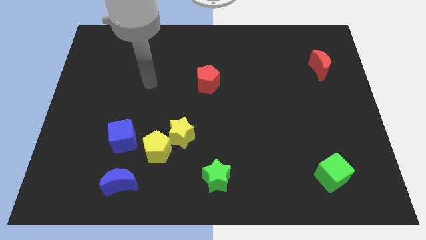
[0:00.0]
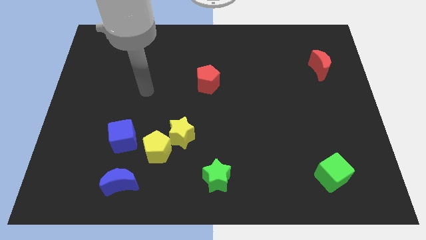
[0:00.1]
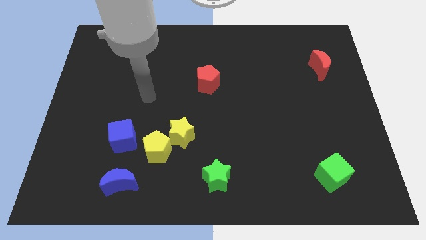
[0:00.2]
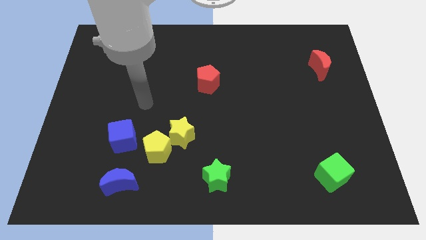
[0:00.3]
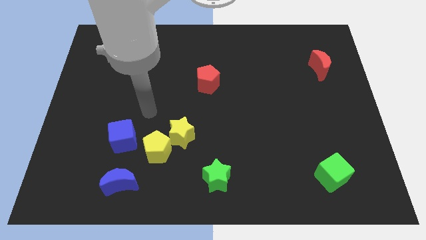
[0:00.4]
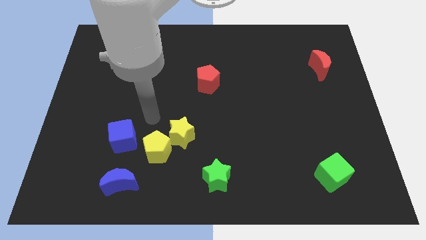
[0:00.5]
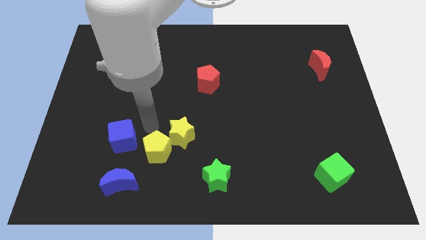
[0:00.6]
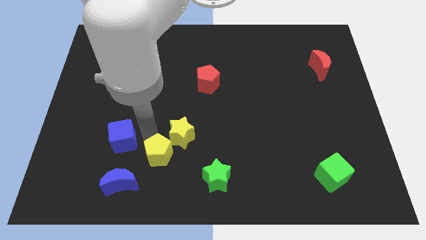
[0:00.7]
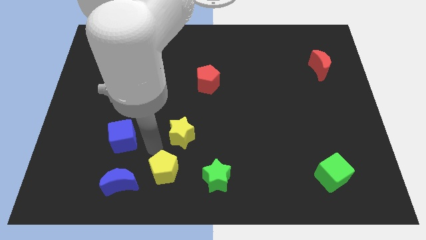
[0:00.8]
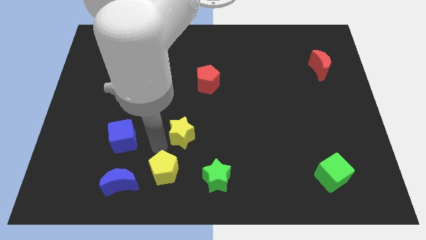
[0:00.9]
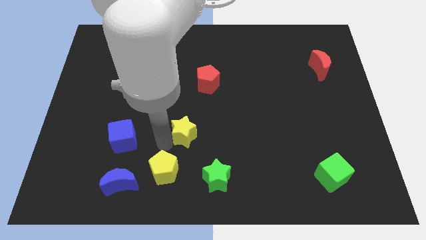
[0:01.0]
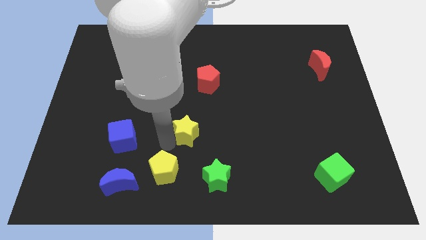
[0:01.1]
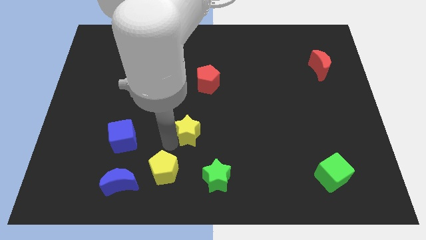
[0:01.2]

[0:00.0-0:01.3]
pull the yellow star apart from the yellow pentagon

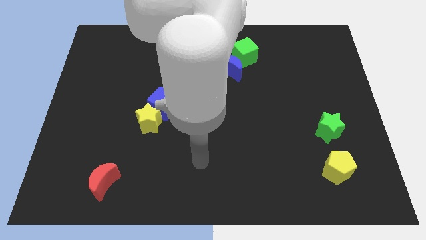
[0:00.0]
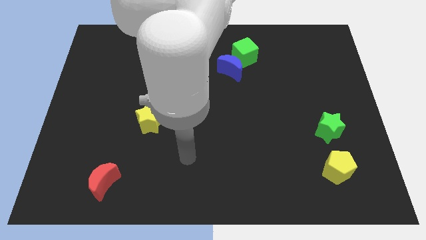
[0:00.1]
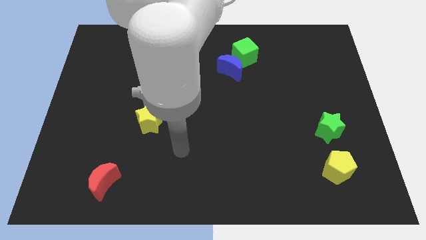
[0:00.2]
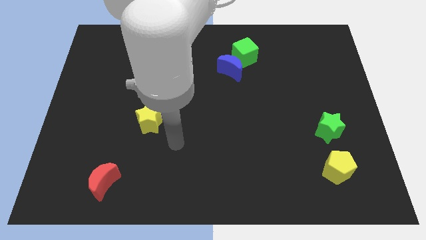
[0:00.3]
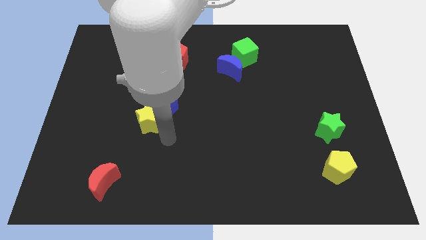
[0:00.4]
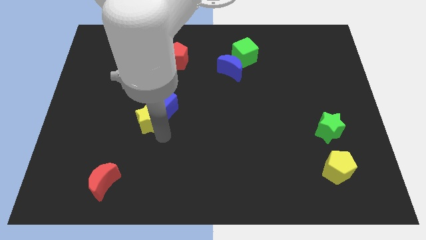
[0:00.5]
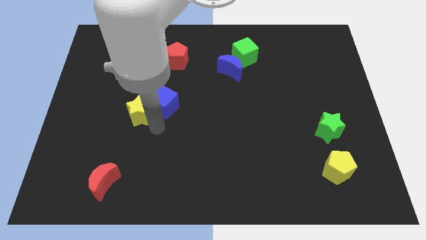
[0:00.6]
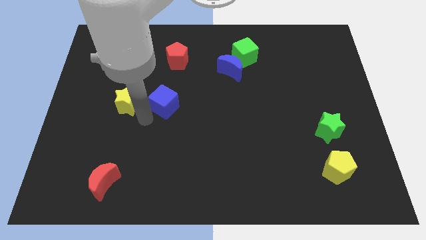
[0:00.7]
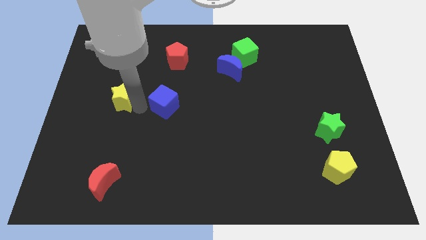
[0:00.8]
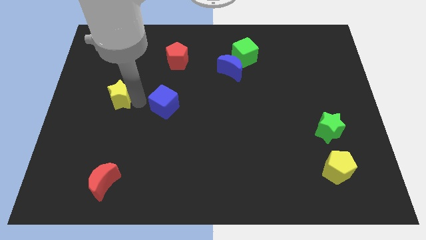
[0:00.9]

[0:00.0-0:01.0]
pull the blue cube apart from the yellow star

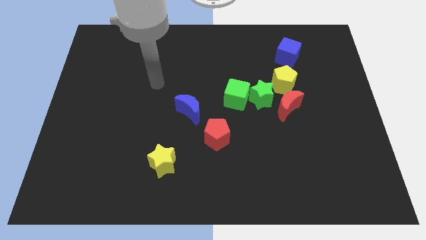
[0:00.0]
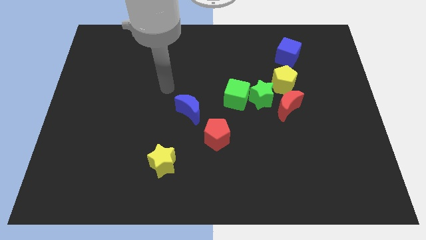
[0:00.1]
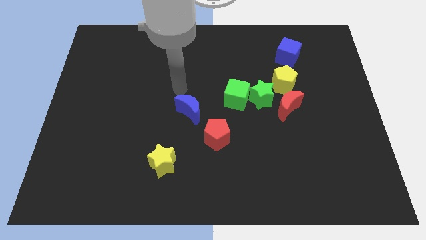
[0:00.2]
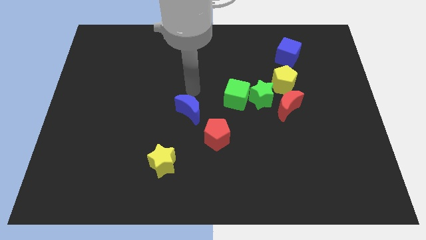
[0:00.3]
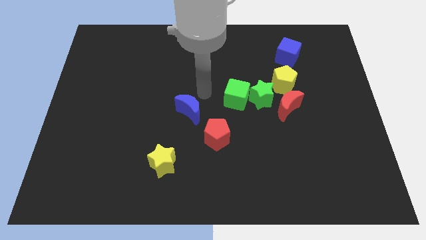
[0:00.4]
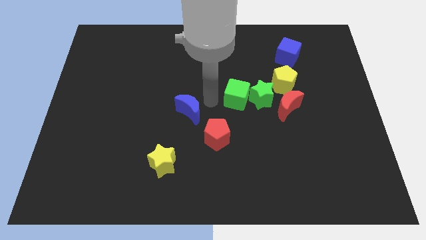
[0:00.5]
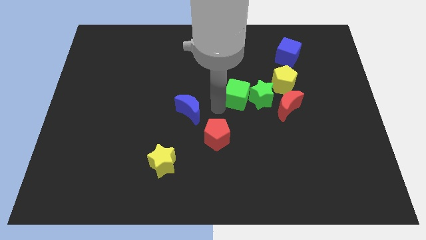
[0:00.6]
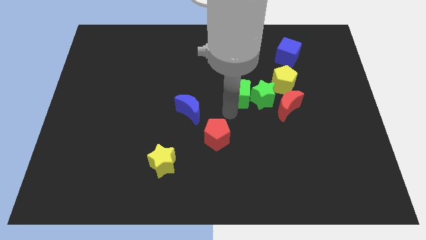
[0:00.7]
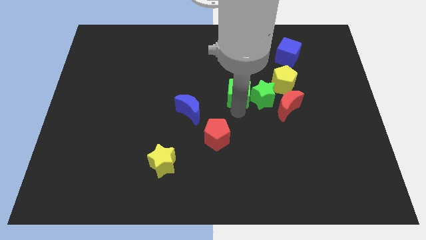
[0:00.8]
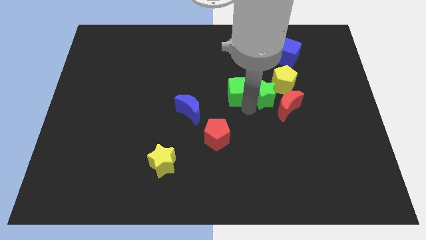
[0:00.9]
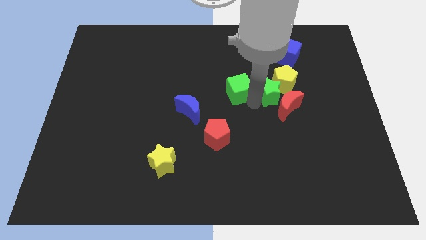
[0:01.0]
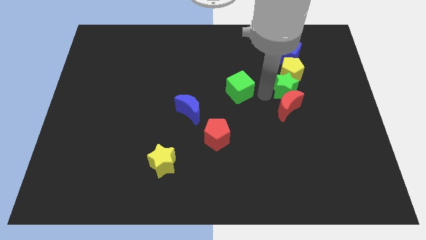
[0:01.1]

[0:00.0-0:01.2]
move the green cube away from the green star

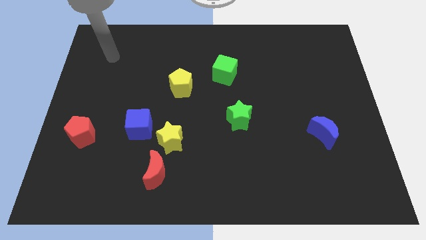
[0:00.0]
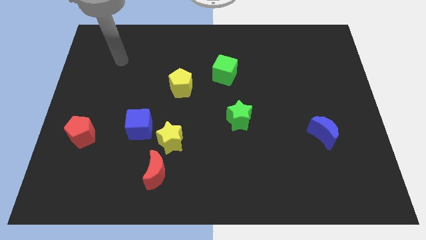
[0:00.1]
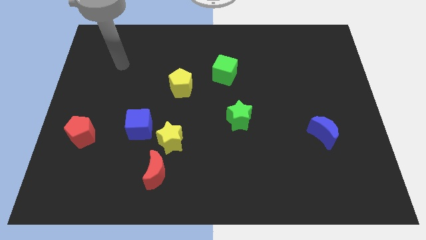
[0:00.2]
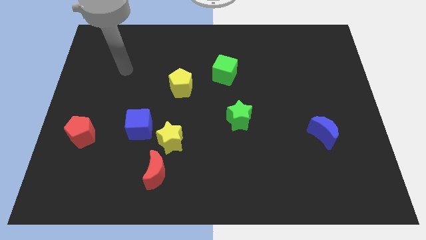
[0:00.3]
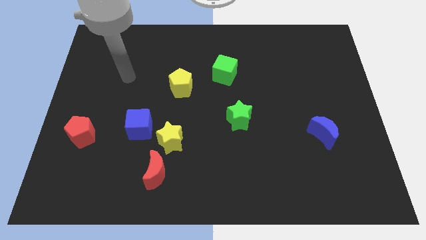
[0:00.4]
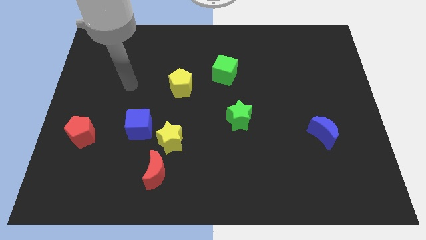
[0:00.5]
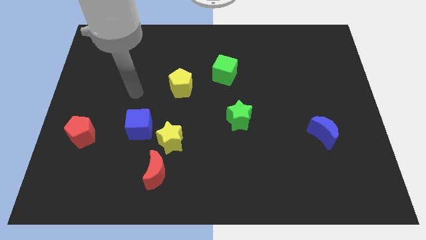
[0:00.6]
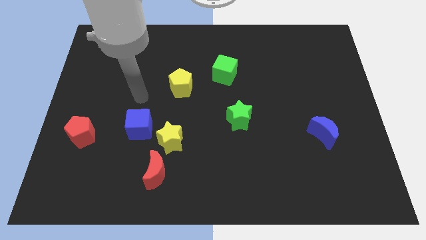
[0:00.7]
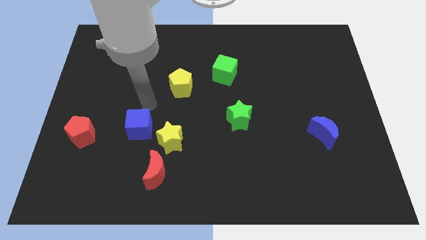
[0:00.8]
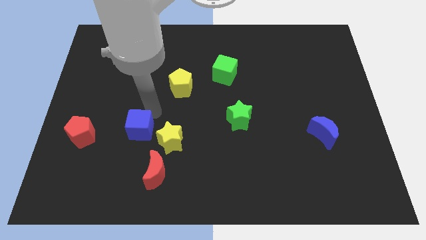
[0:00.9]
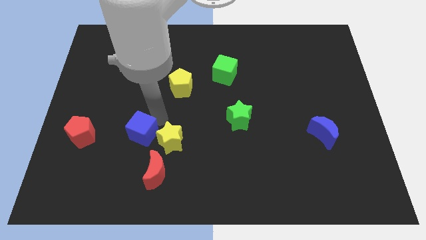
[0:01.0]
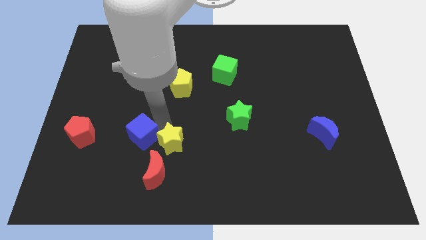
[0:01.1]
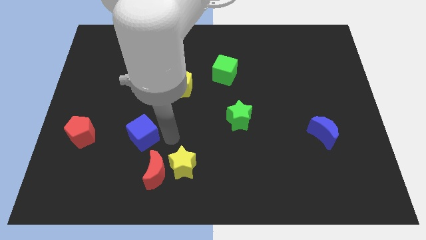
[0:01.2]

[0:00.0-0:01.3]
move the blue cube away from the yellow star

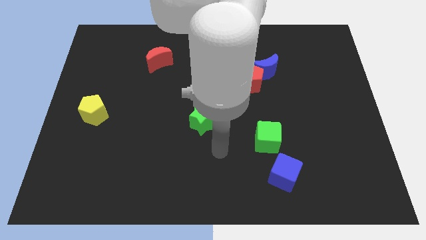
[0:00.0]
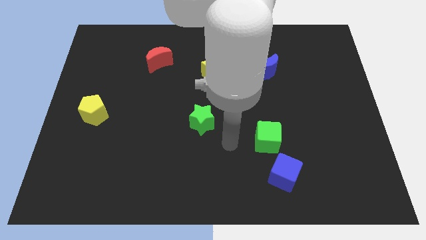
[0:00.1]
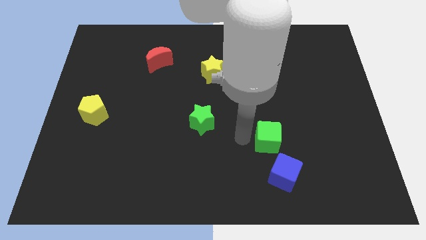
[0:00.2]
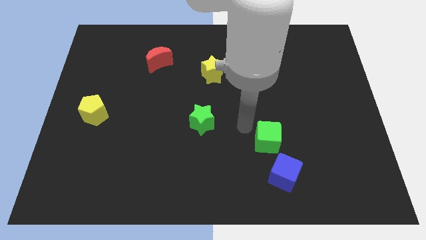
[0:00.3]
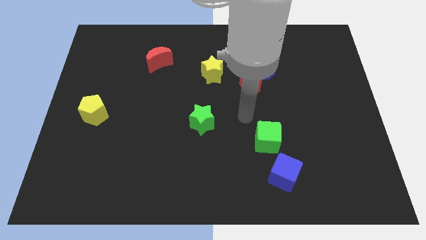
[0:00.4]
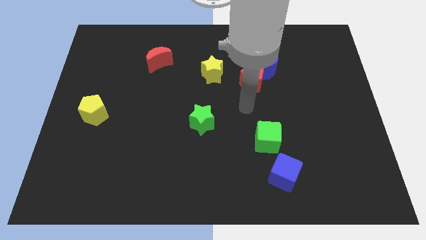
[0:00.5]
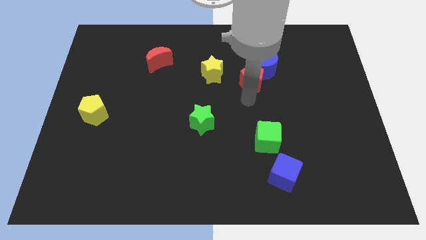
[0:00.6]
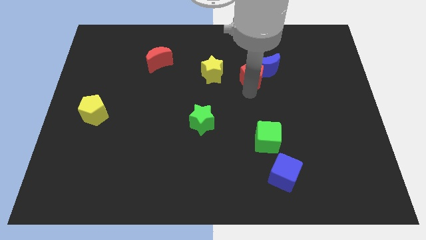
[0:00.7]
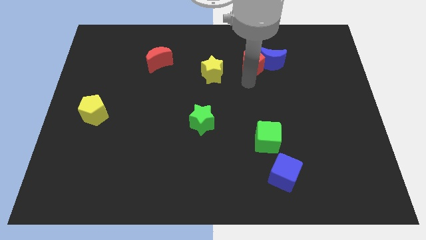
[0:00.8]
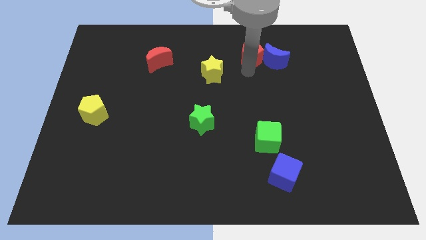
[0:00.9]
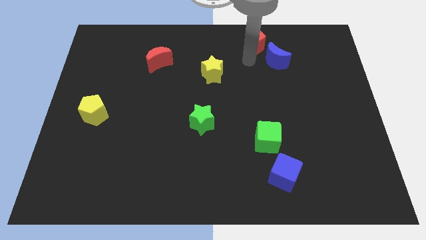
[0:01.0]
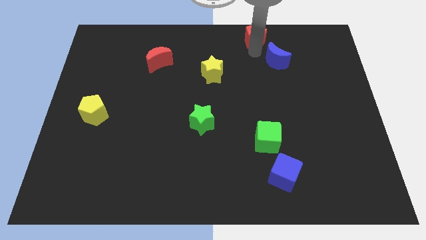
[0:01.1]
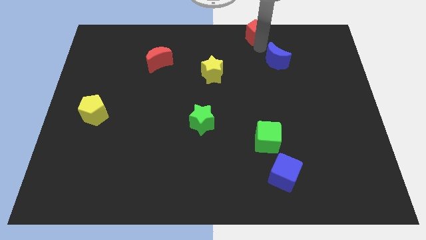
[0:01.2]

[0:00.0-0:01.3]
move the blue moon away from the red pentagon

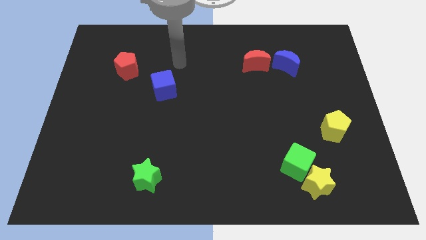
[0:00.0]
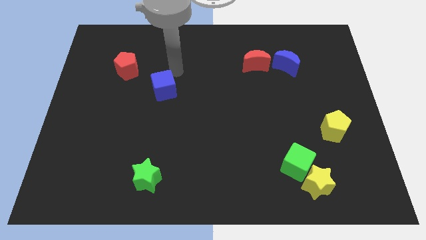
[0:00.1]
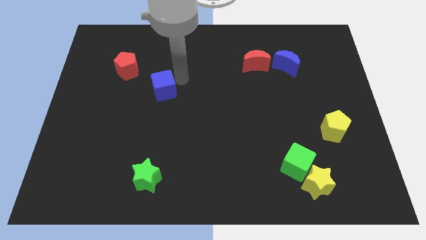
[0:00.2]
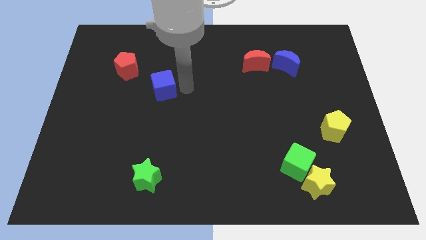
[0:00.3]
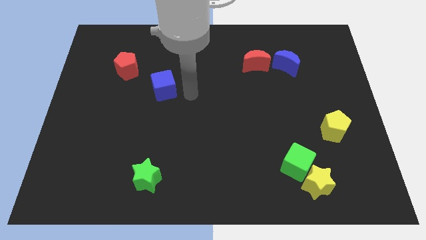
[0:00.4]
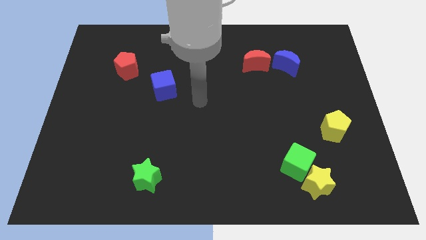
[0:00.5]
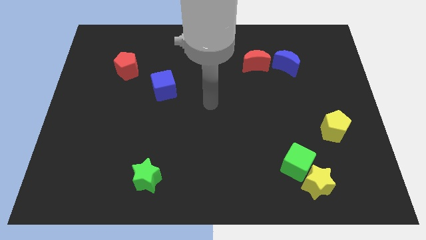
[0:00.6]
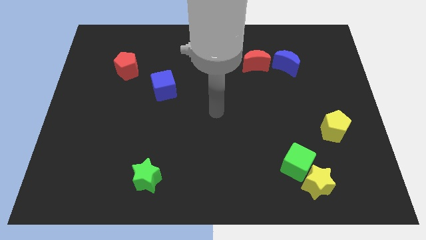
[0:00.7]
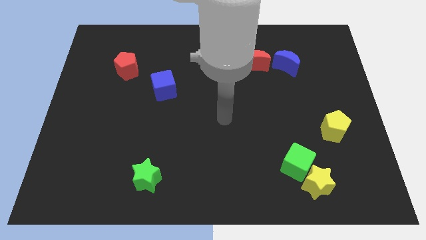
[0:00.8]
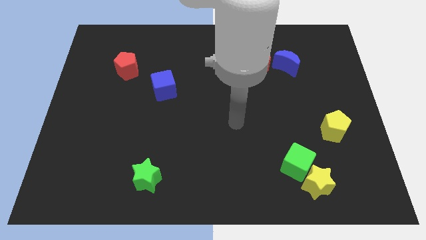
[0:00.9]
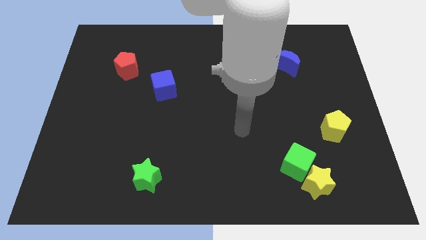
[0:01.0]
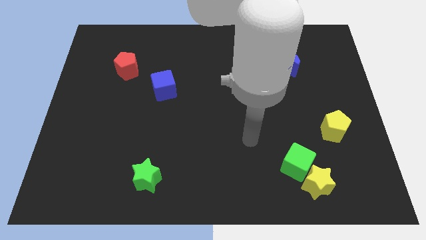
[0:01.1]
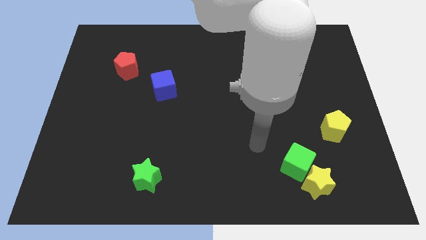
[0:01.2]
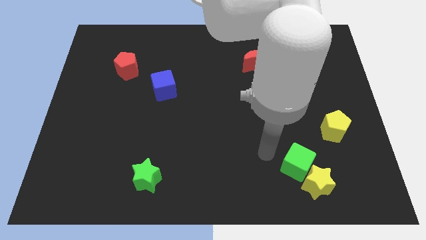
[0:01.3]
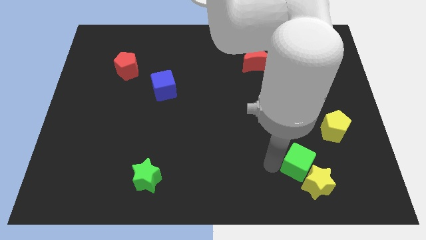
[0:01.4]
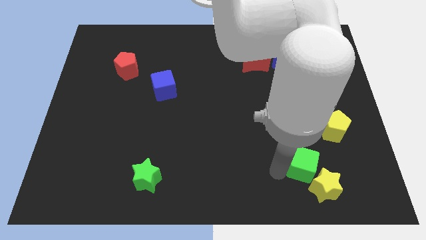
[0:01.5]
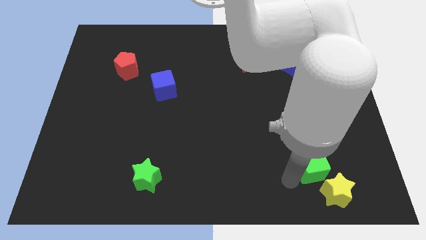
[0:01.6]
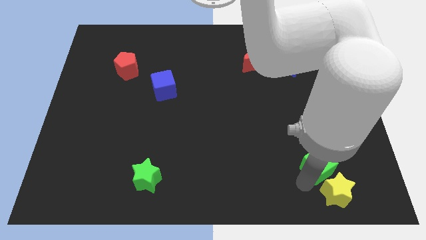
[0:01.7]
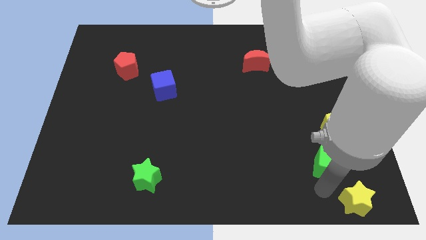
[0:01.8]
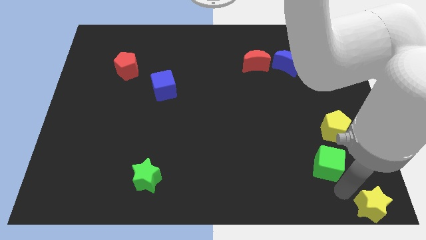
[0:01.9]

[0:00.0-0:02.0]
separate the green cube from the yellow star

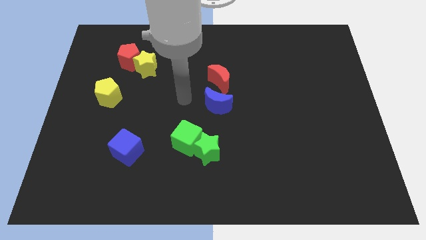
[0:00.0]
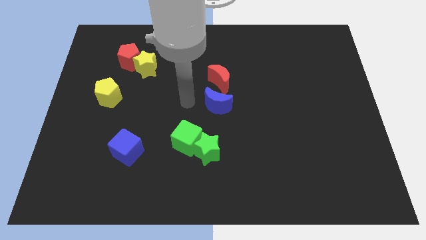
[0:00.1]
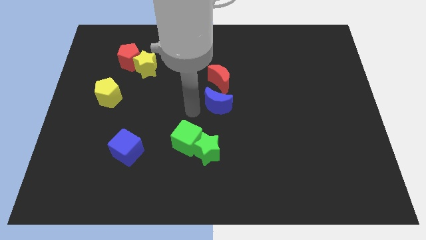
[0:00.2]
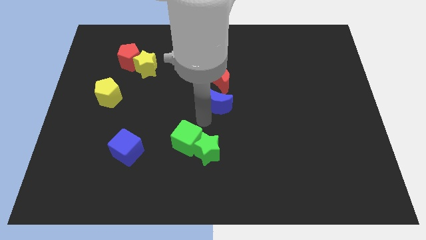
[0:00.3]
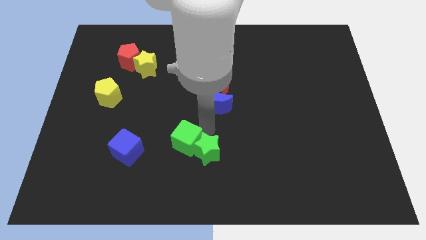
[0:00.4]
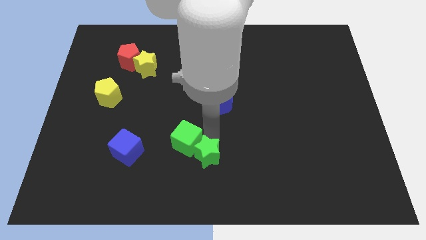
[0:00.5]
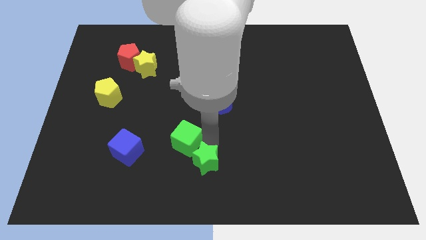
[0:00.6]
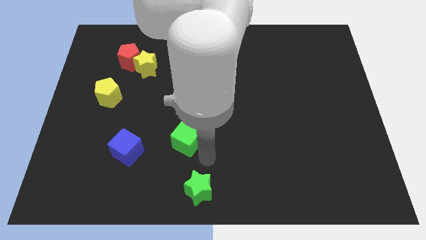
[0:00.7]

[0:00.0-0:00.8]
separate the green cube from the green star

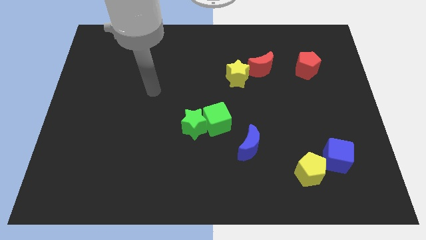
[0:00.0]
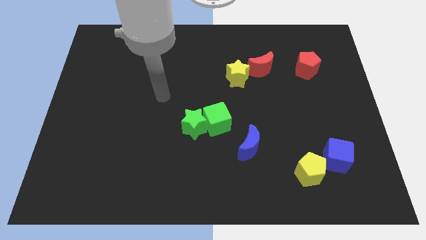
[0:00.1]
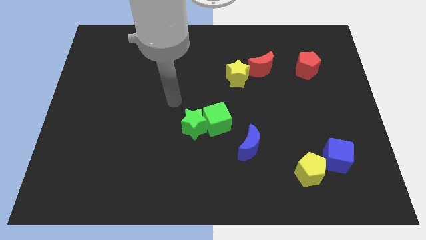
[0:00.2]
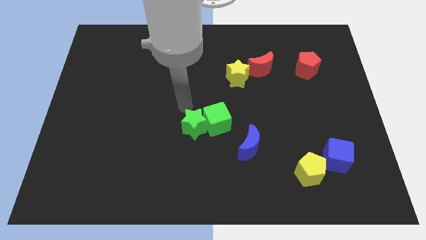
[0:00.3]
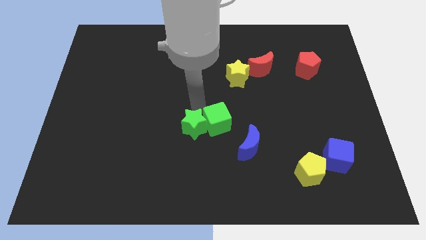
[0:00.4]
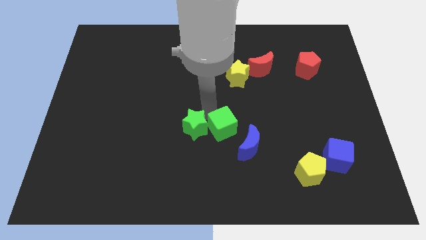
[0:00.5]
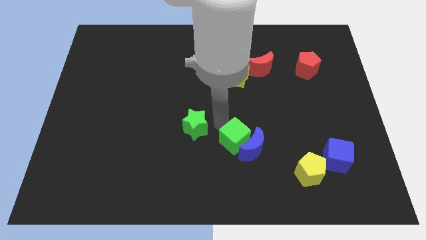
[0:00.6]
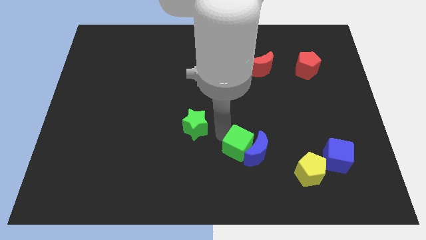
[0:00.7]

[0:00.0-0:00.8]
move the green star away from the green cube
